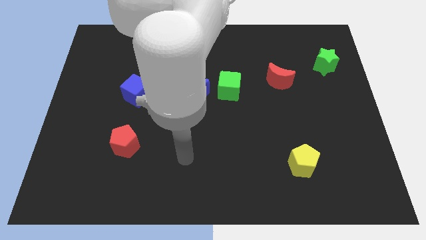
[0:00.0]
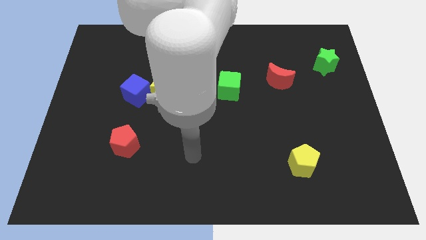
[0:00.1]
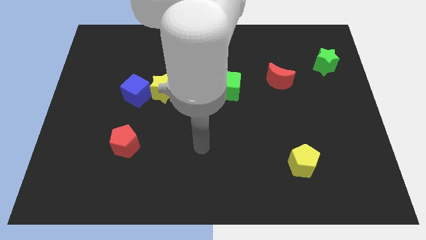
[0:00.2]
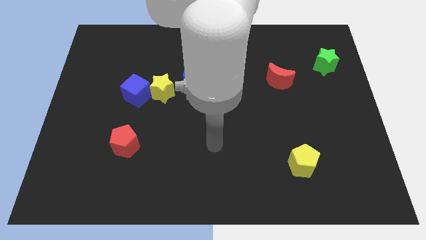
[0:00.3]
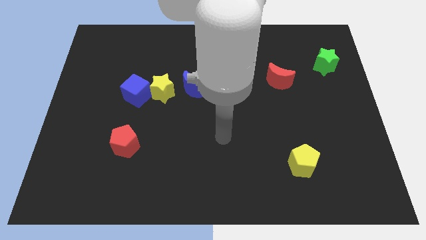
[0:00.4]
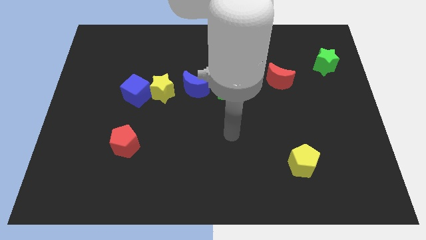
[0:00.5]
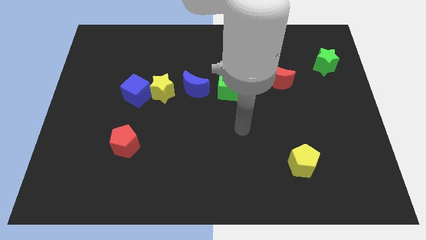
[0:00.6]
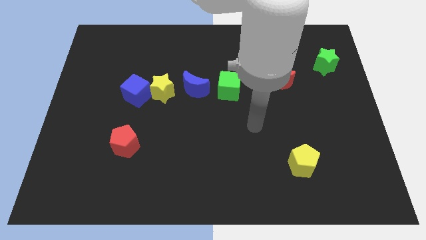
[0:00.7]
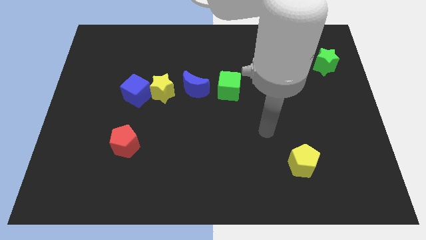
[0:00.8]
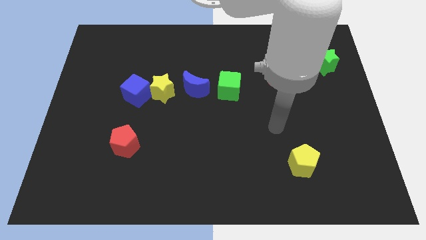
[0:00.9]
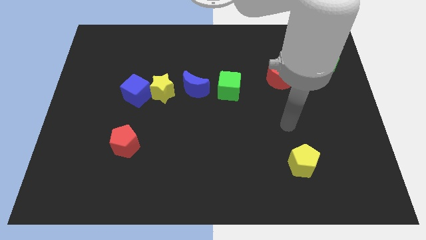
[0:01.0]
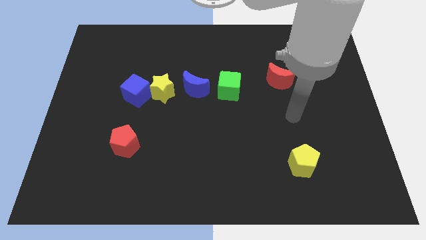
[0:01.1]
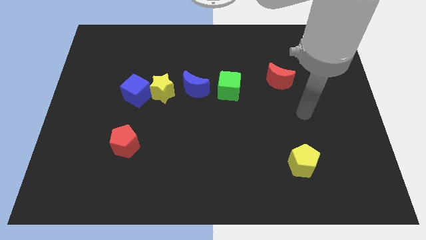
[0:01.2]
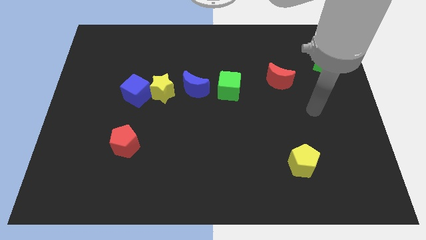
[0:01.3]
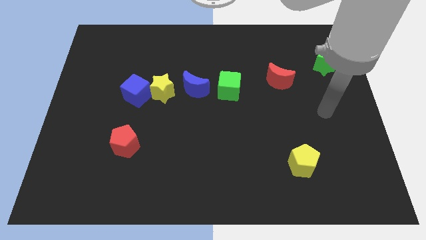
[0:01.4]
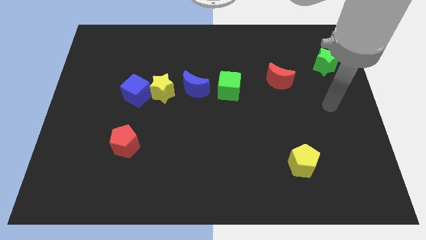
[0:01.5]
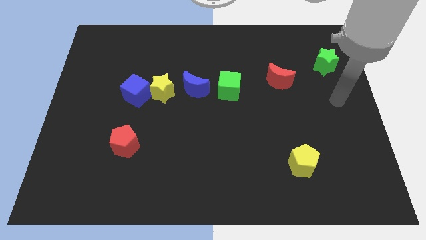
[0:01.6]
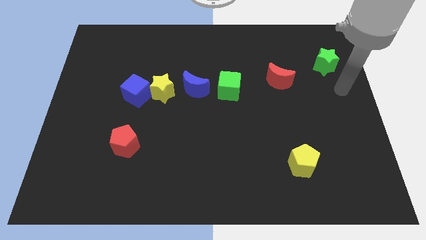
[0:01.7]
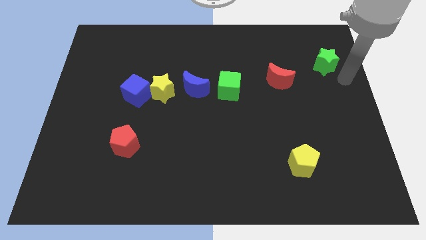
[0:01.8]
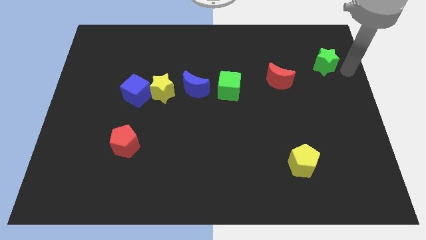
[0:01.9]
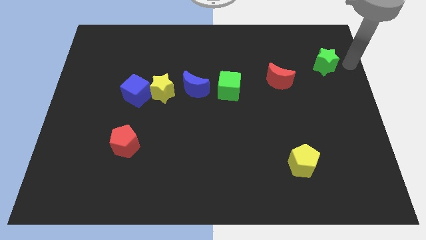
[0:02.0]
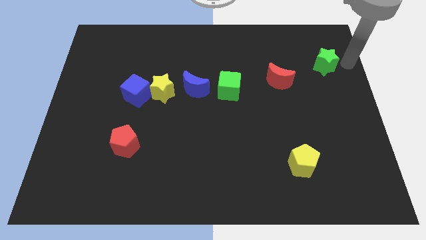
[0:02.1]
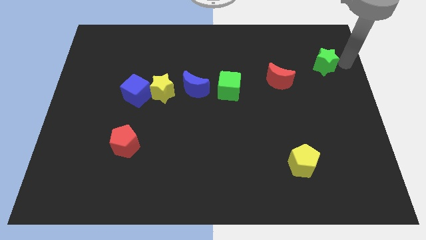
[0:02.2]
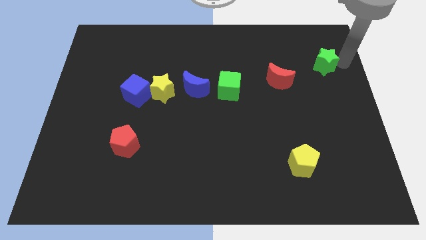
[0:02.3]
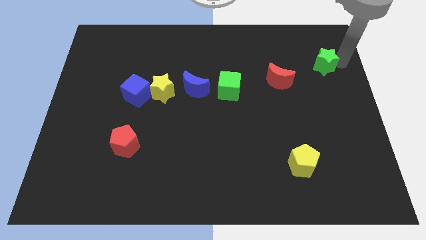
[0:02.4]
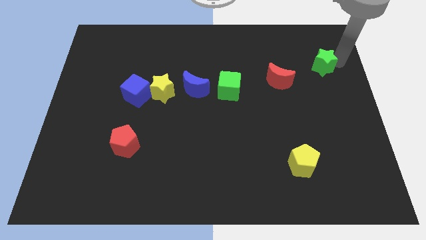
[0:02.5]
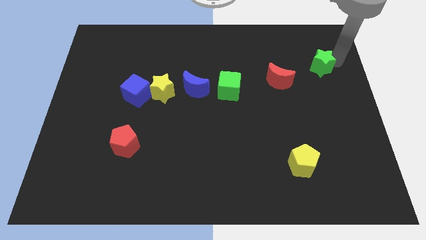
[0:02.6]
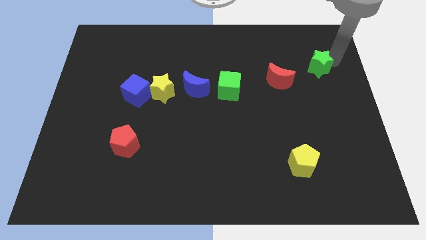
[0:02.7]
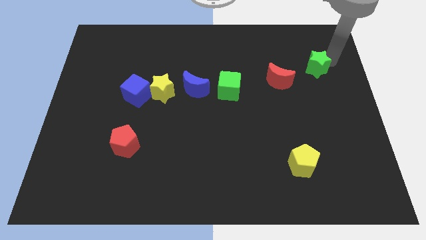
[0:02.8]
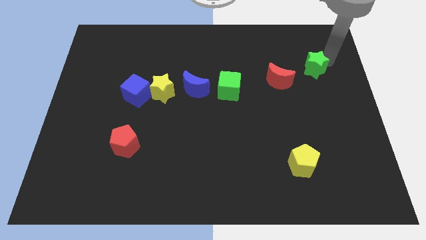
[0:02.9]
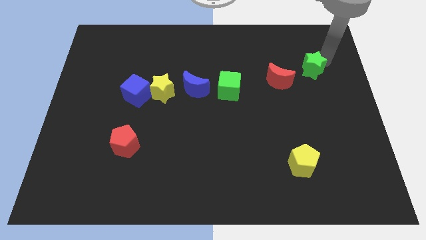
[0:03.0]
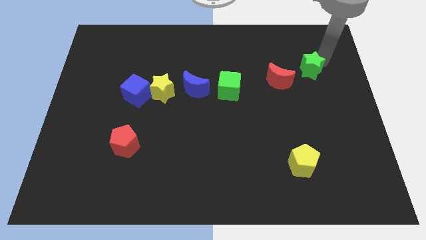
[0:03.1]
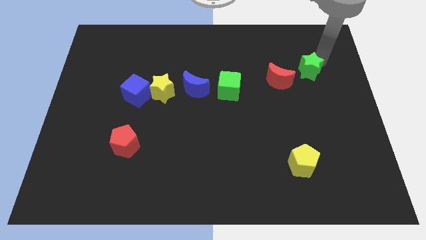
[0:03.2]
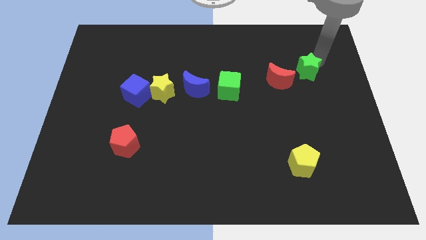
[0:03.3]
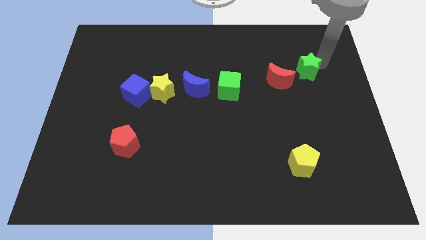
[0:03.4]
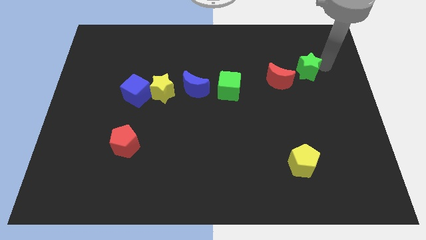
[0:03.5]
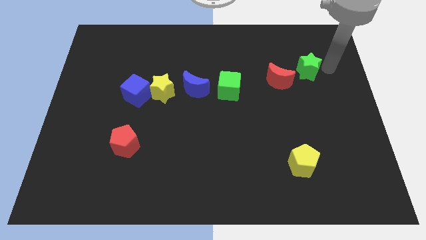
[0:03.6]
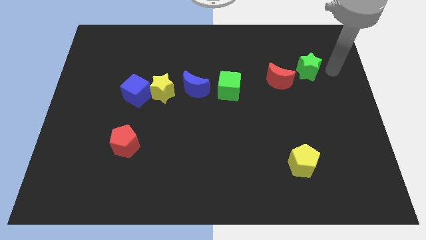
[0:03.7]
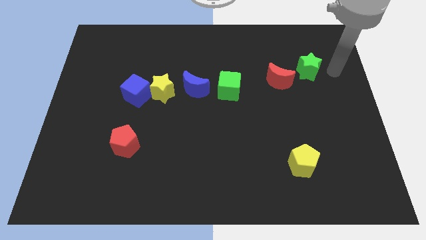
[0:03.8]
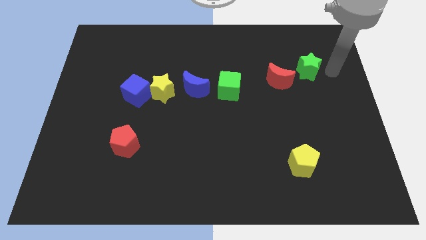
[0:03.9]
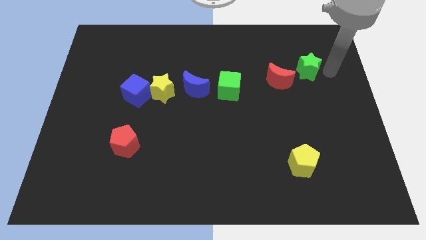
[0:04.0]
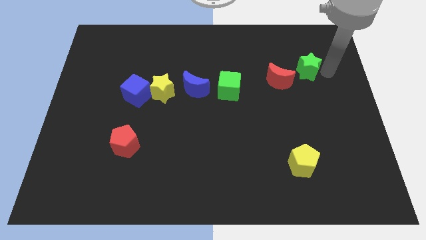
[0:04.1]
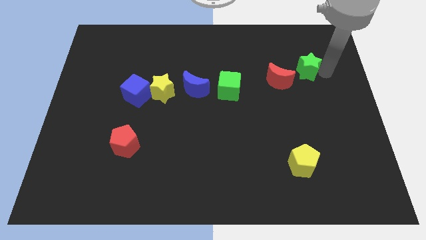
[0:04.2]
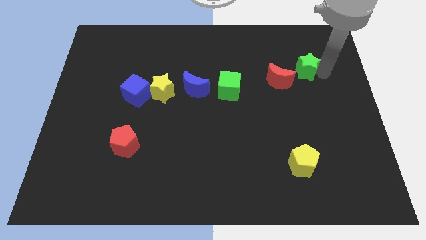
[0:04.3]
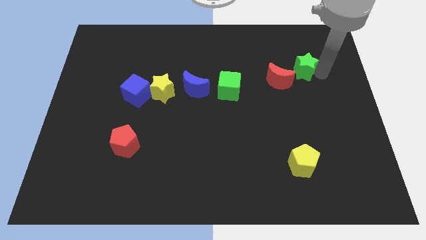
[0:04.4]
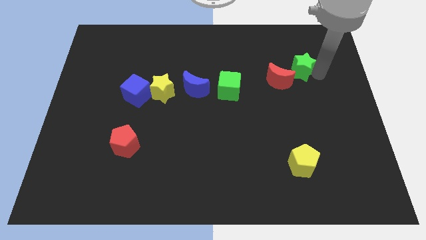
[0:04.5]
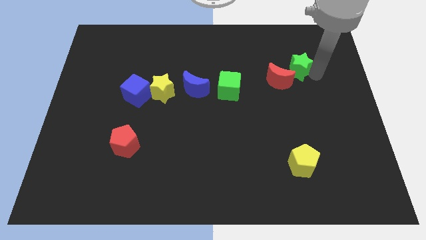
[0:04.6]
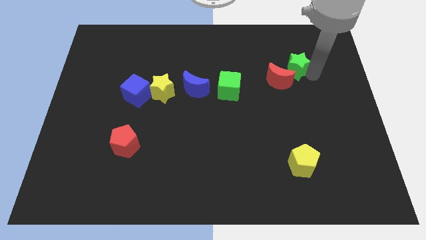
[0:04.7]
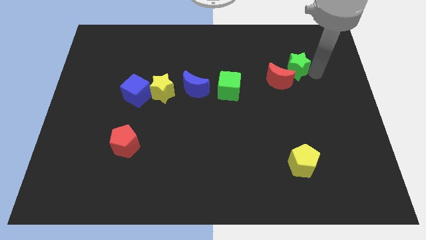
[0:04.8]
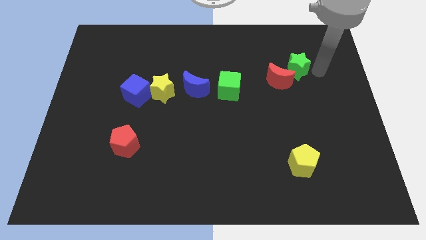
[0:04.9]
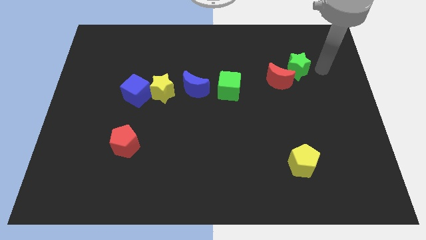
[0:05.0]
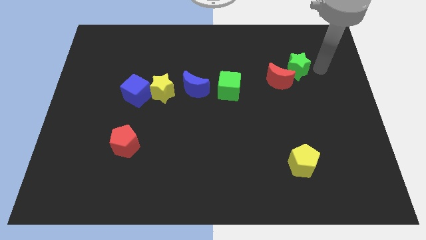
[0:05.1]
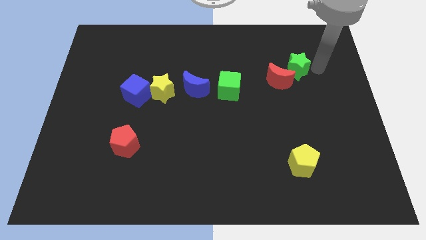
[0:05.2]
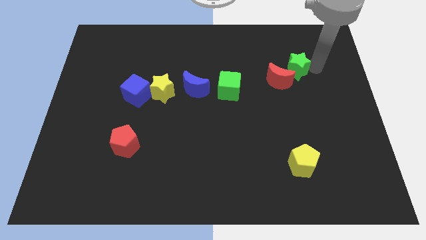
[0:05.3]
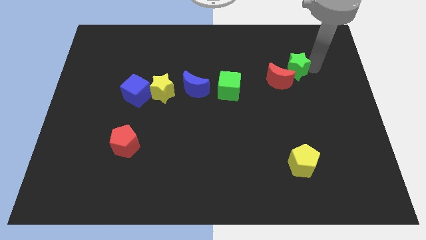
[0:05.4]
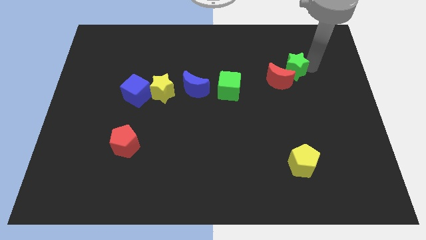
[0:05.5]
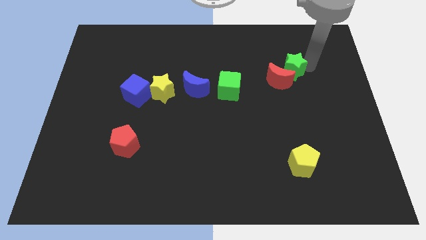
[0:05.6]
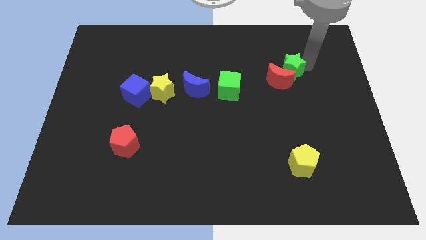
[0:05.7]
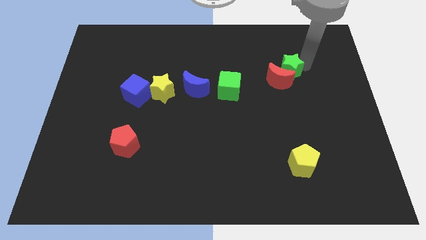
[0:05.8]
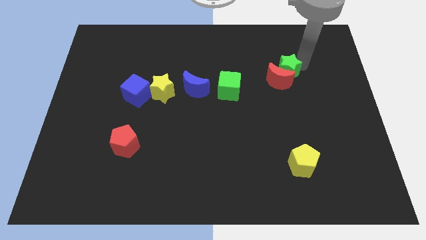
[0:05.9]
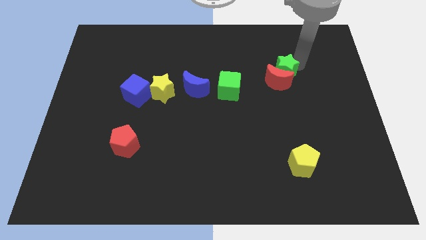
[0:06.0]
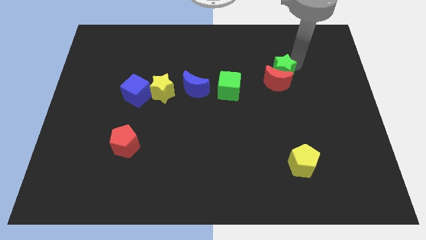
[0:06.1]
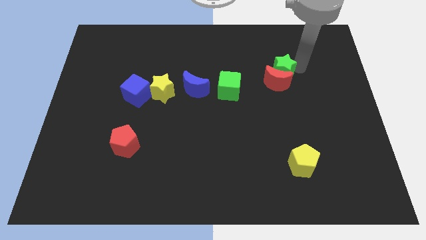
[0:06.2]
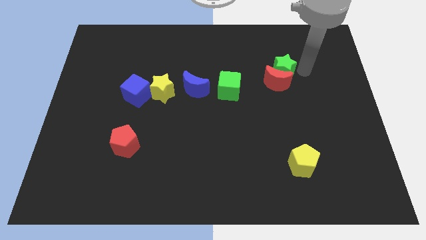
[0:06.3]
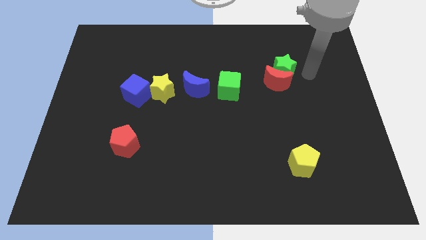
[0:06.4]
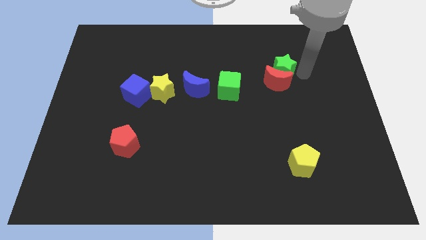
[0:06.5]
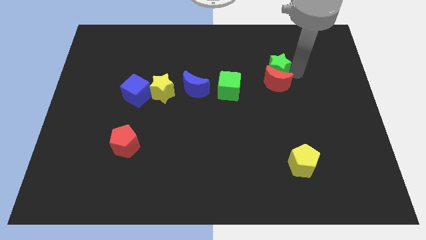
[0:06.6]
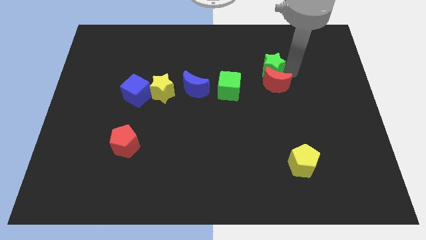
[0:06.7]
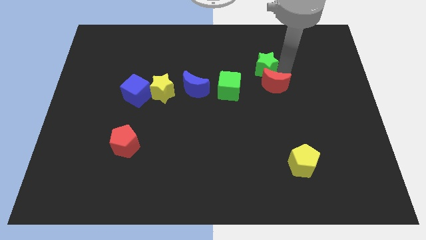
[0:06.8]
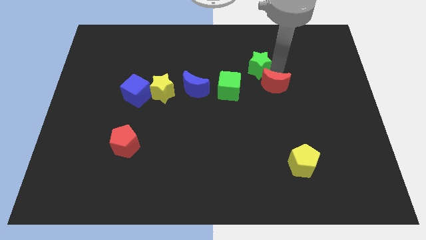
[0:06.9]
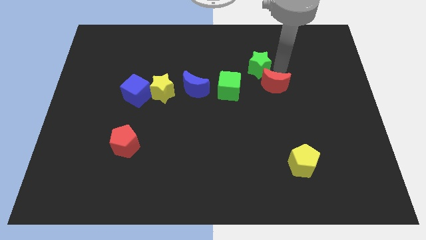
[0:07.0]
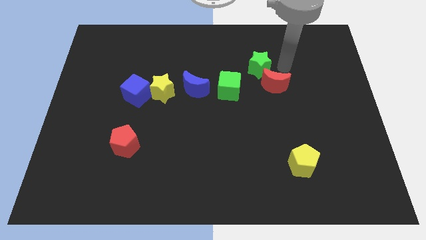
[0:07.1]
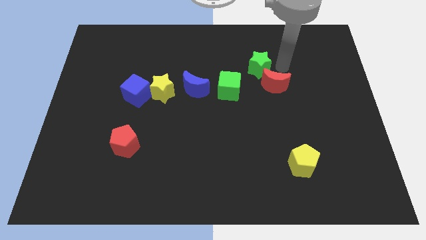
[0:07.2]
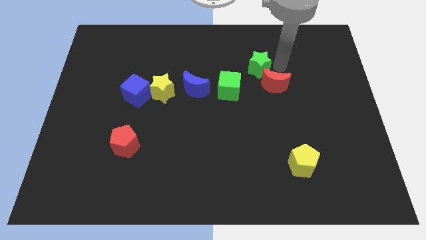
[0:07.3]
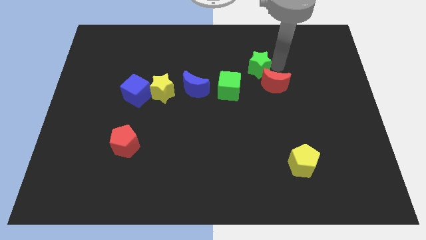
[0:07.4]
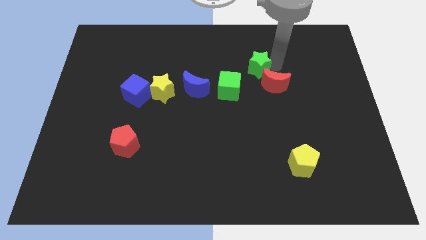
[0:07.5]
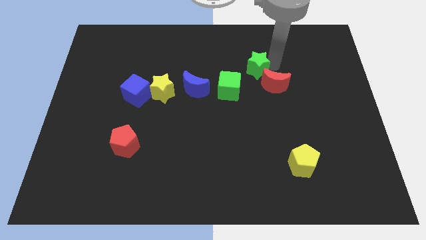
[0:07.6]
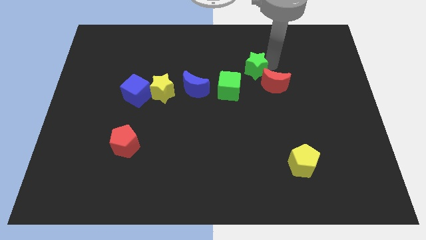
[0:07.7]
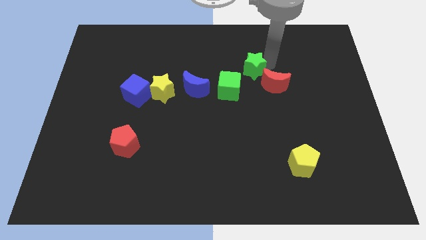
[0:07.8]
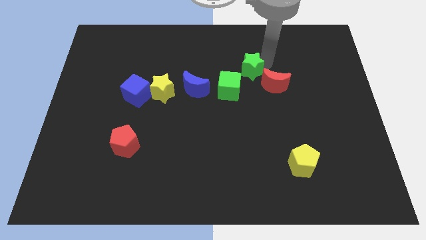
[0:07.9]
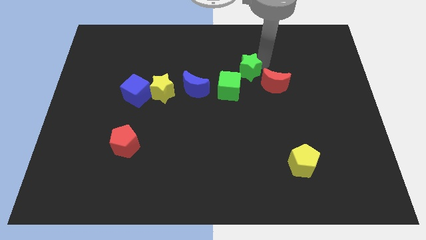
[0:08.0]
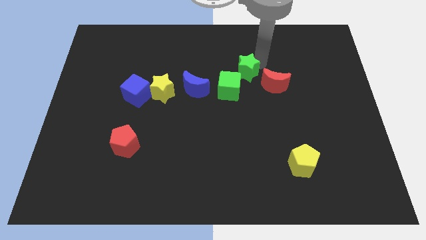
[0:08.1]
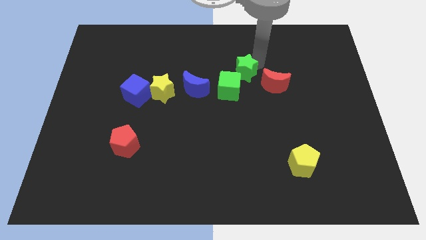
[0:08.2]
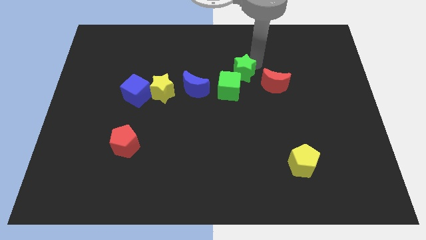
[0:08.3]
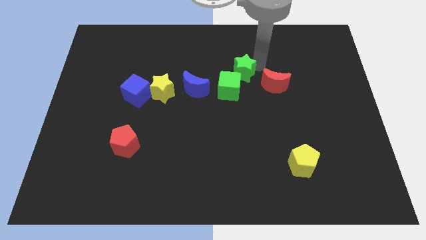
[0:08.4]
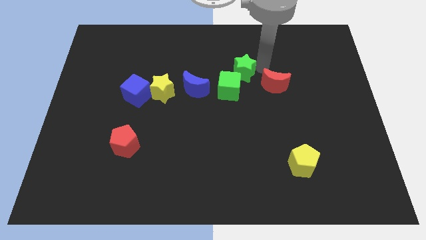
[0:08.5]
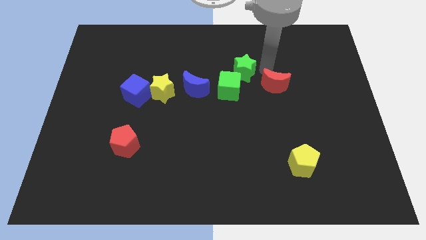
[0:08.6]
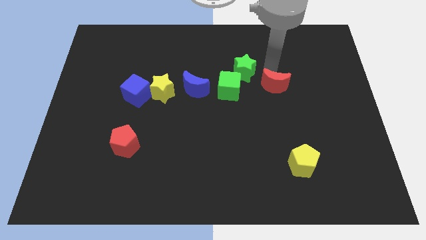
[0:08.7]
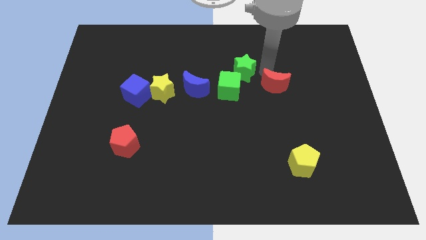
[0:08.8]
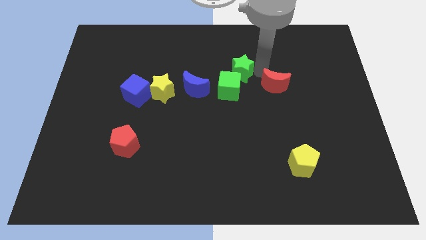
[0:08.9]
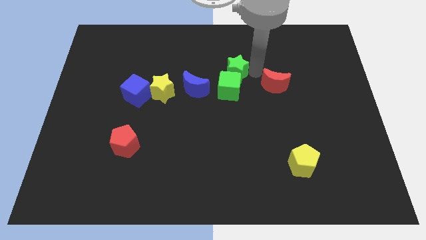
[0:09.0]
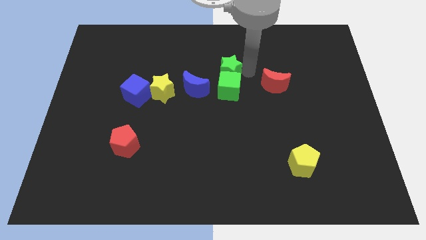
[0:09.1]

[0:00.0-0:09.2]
put the green star diagonally up and to the left of the green cube
